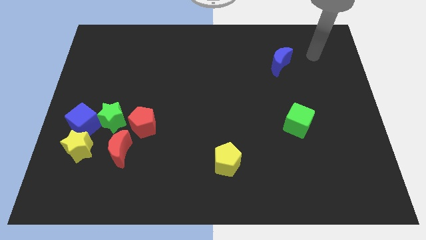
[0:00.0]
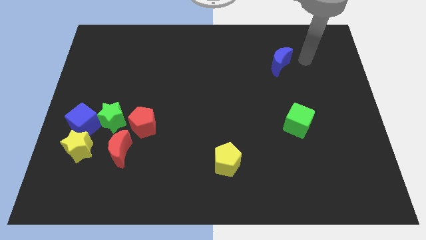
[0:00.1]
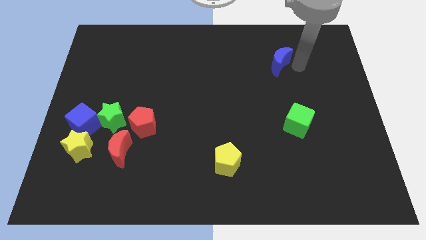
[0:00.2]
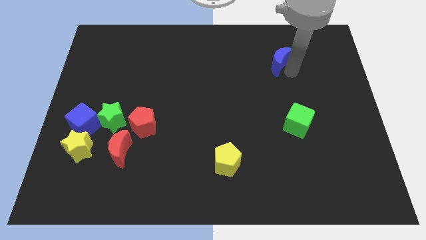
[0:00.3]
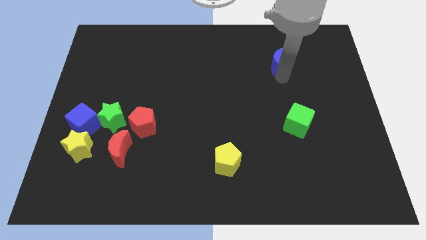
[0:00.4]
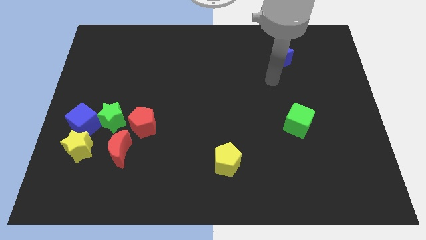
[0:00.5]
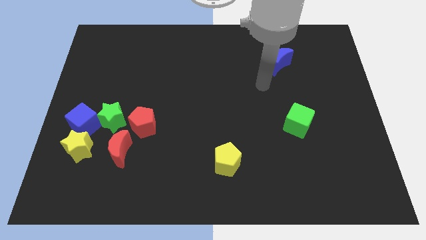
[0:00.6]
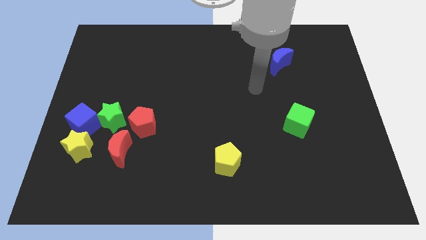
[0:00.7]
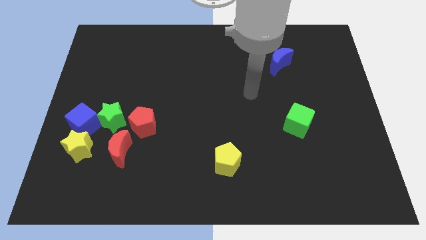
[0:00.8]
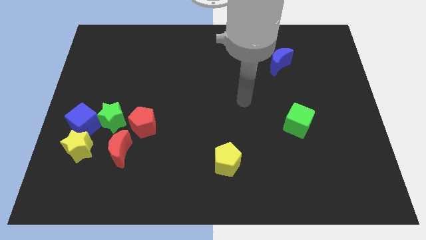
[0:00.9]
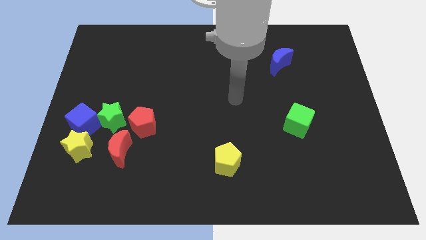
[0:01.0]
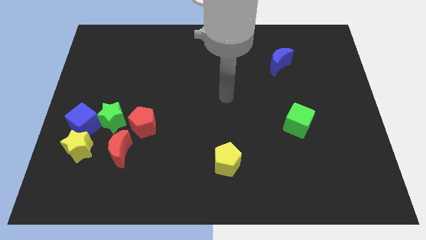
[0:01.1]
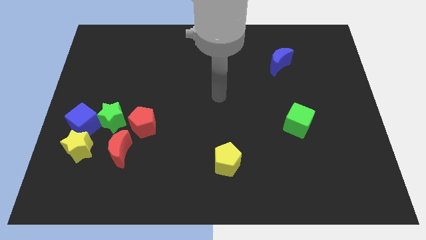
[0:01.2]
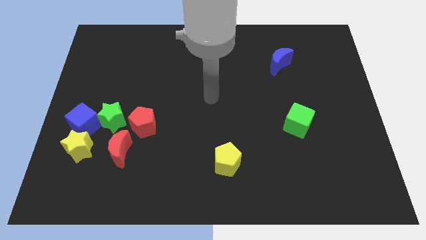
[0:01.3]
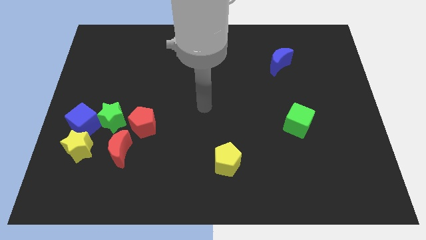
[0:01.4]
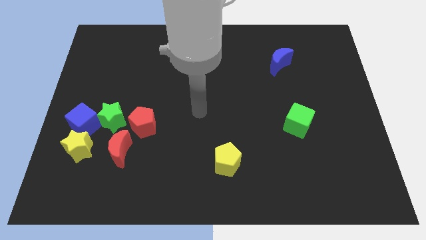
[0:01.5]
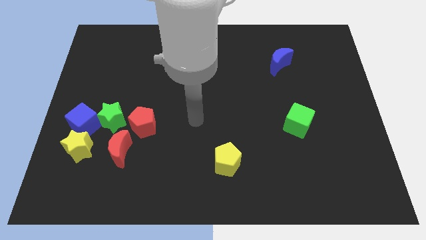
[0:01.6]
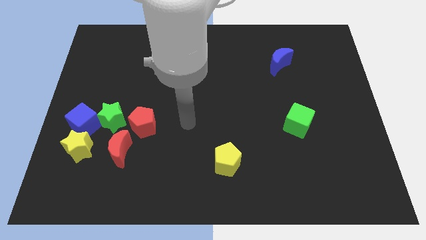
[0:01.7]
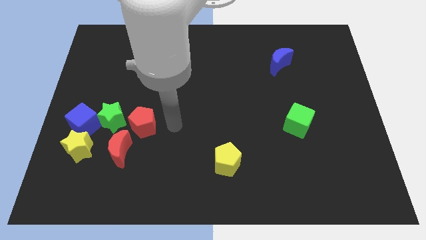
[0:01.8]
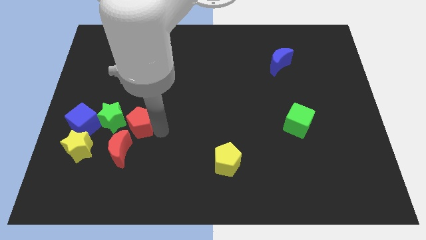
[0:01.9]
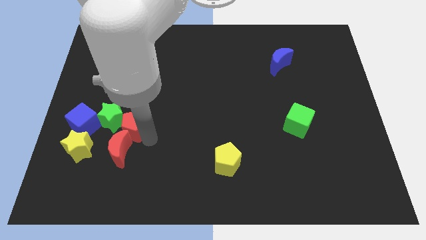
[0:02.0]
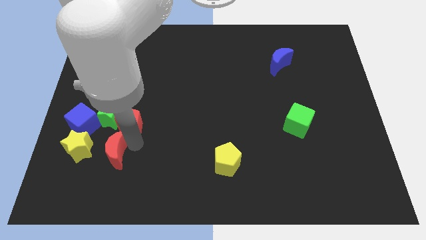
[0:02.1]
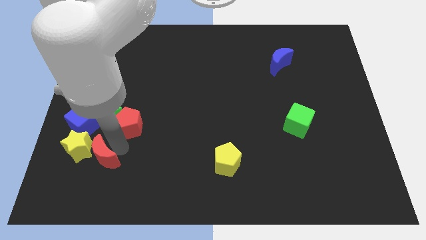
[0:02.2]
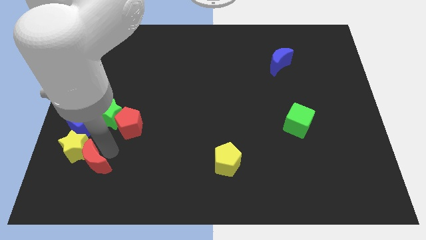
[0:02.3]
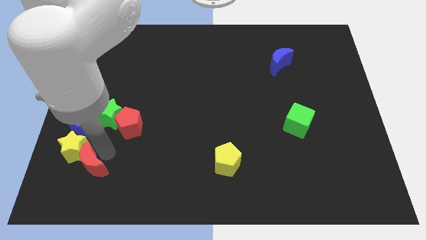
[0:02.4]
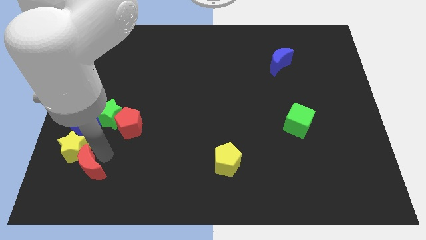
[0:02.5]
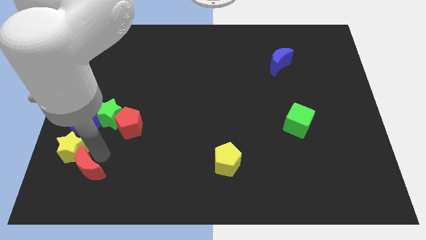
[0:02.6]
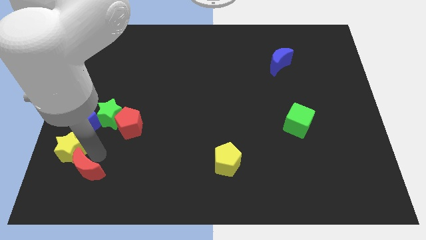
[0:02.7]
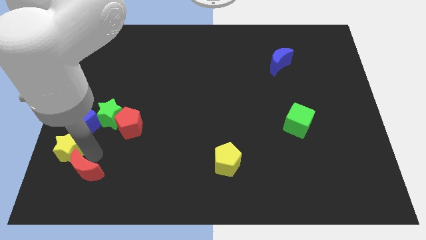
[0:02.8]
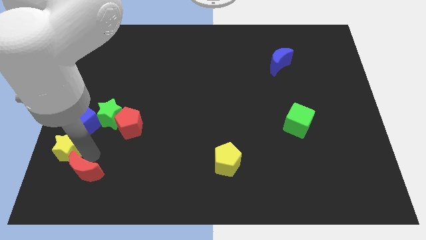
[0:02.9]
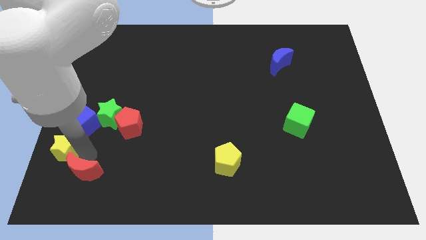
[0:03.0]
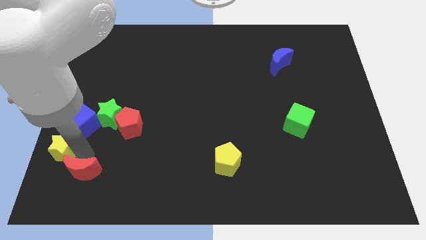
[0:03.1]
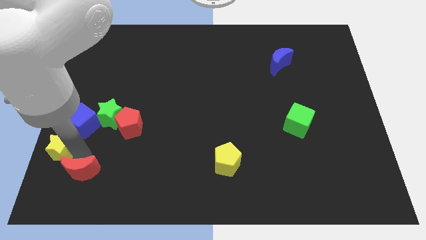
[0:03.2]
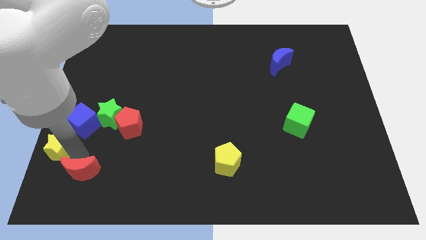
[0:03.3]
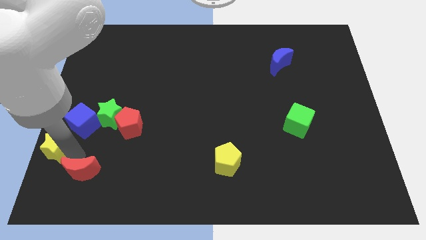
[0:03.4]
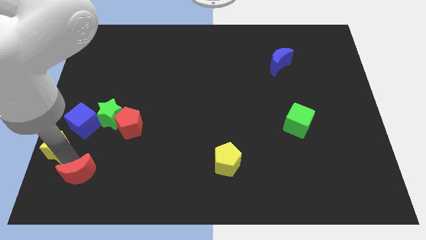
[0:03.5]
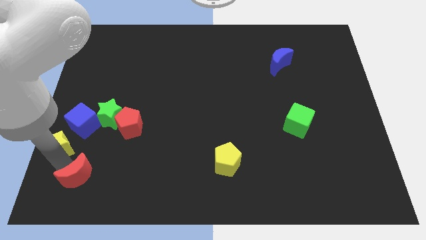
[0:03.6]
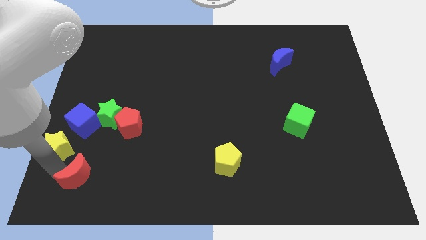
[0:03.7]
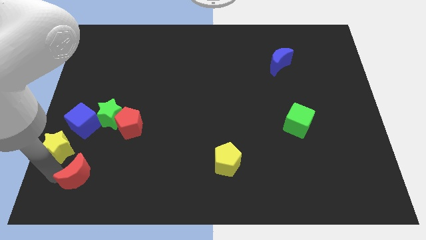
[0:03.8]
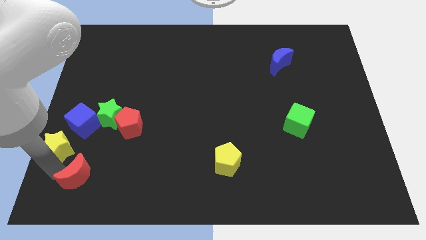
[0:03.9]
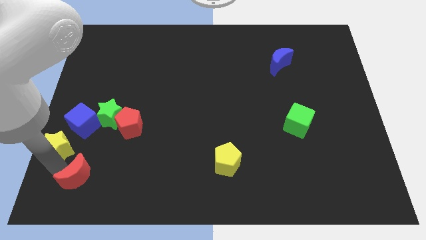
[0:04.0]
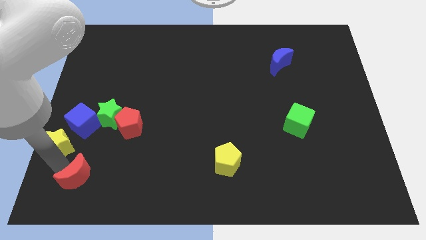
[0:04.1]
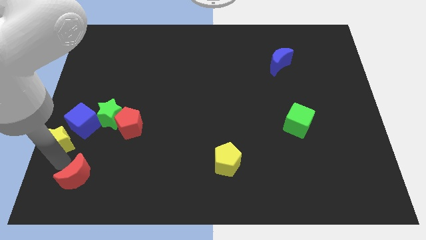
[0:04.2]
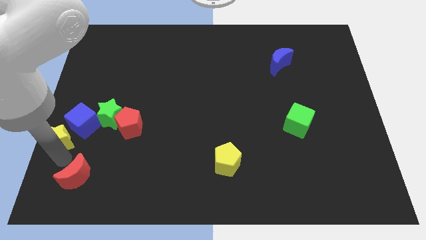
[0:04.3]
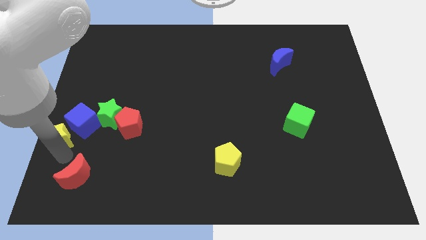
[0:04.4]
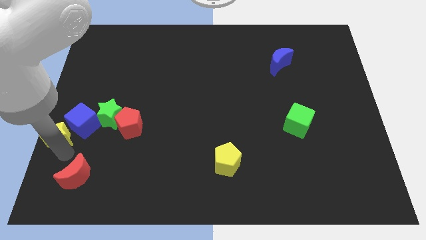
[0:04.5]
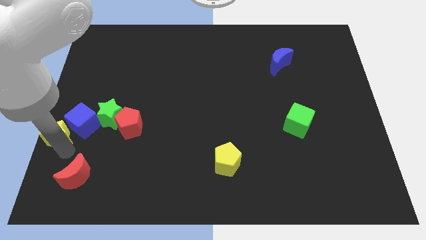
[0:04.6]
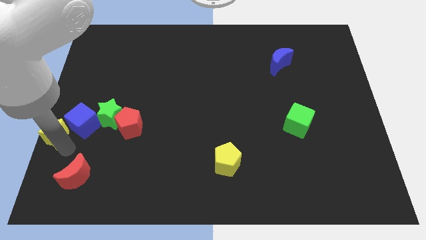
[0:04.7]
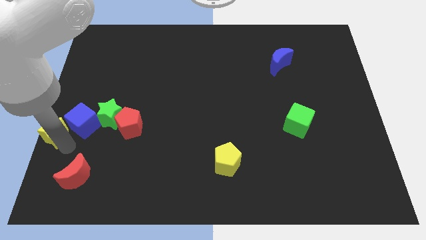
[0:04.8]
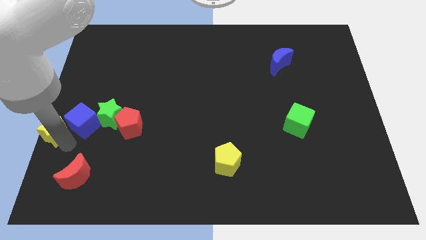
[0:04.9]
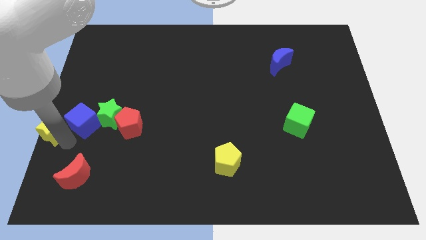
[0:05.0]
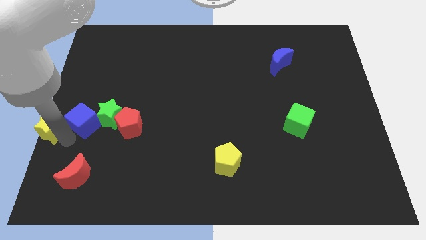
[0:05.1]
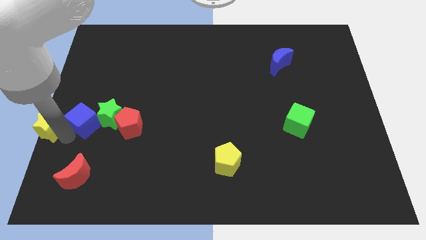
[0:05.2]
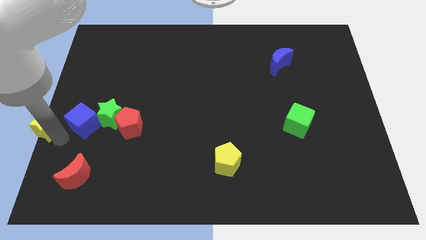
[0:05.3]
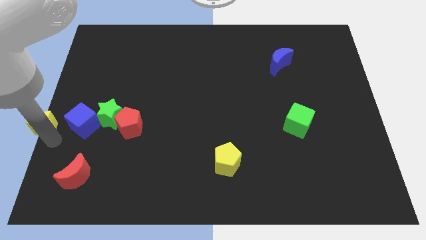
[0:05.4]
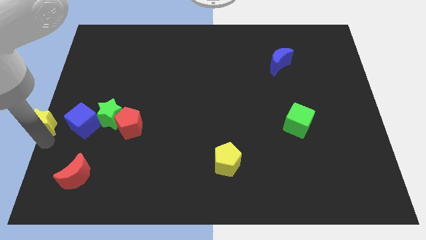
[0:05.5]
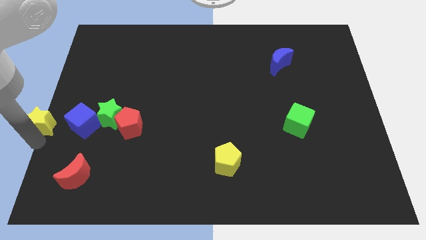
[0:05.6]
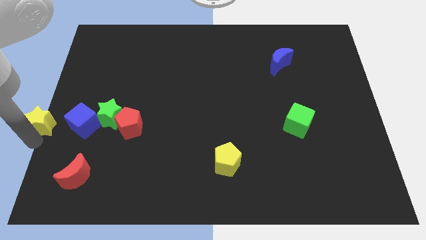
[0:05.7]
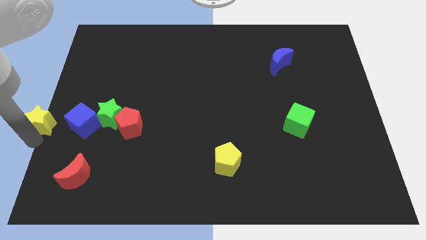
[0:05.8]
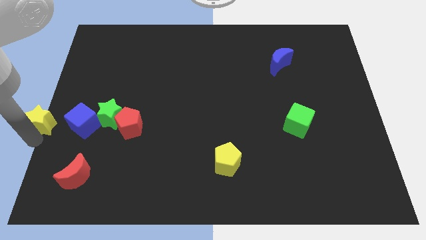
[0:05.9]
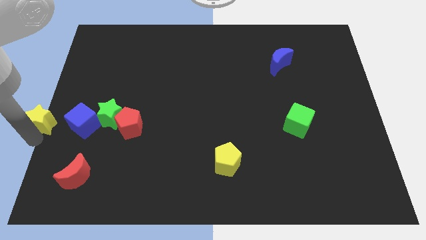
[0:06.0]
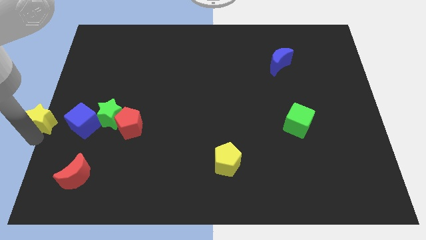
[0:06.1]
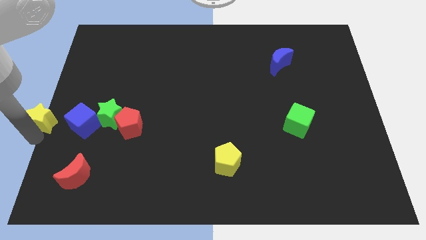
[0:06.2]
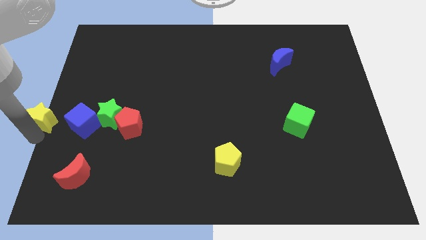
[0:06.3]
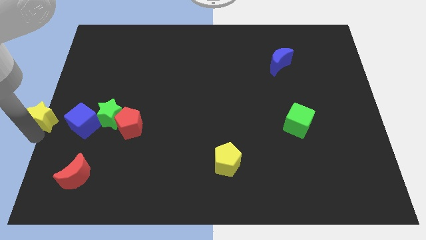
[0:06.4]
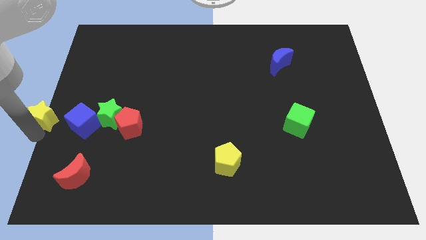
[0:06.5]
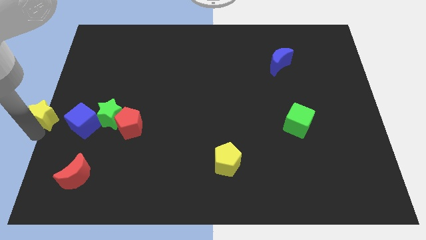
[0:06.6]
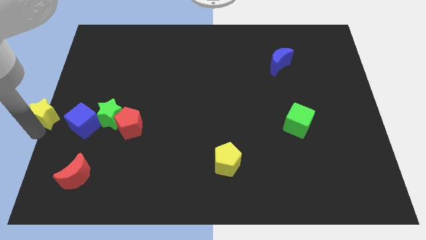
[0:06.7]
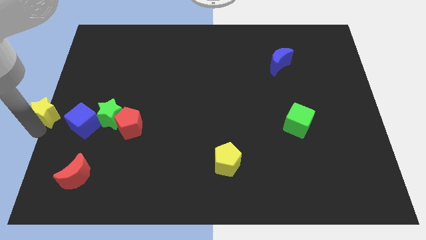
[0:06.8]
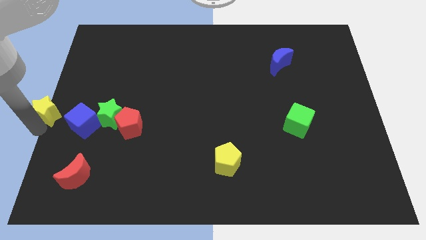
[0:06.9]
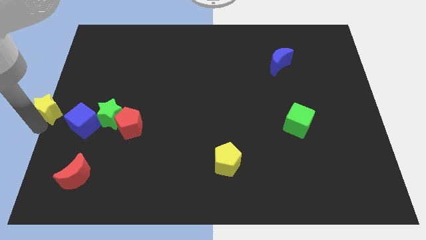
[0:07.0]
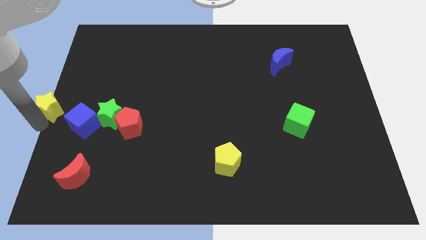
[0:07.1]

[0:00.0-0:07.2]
move the yellow star slightly upwards

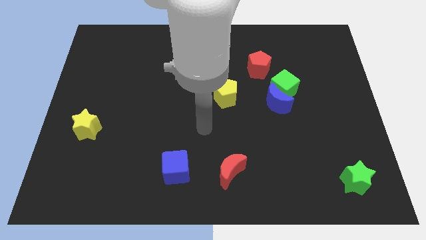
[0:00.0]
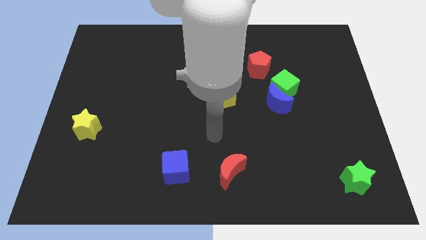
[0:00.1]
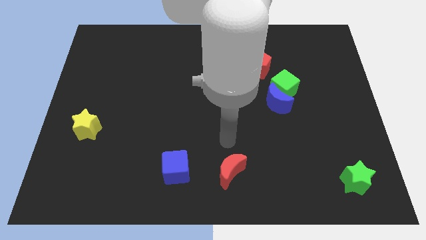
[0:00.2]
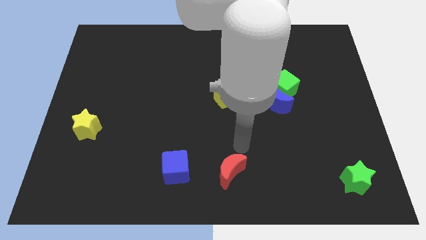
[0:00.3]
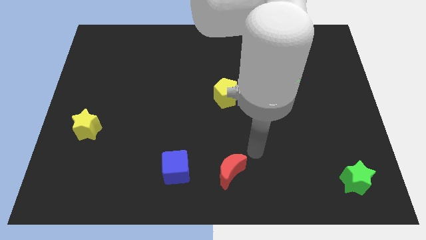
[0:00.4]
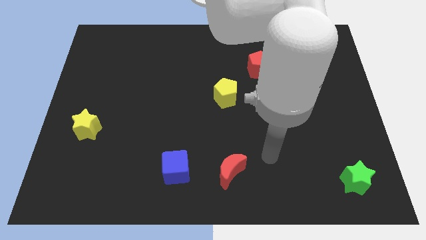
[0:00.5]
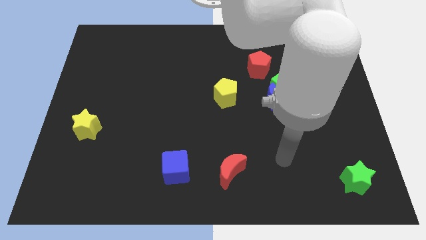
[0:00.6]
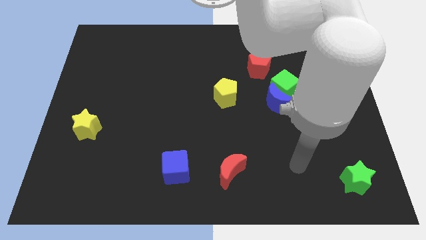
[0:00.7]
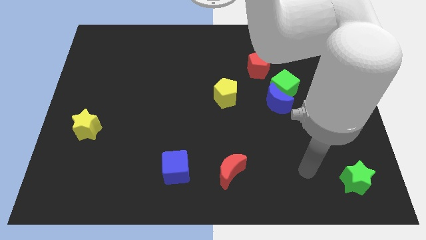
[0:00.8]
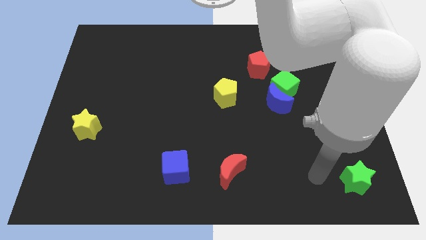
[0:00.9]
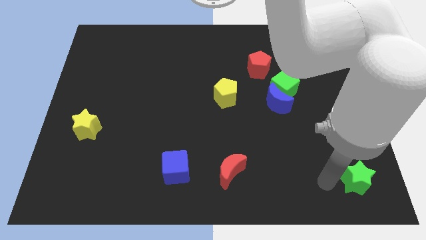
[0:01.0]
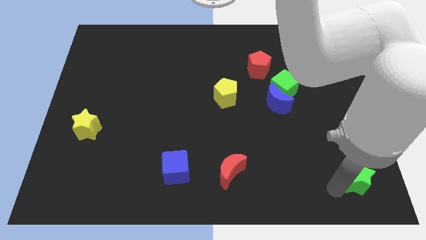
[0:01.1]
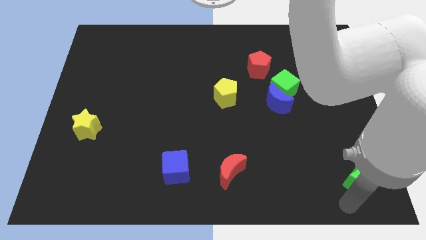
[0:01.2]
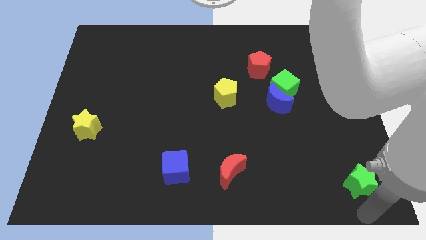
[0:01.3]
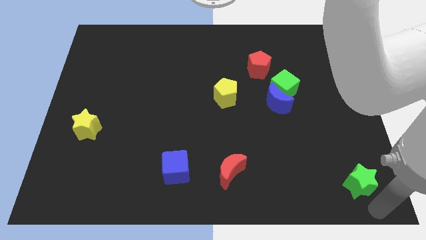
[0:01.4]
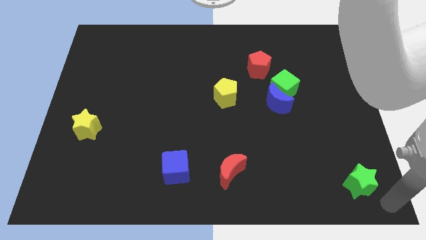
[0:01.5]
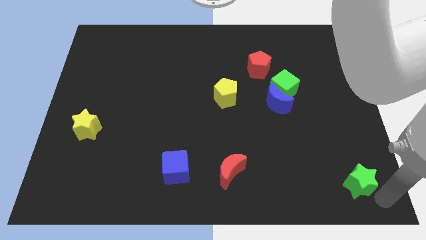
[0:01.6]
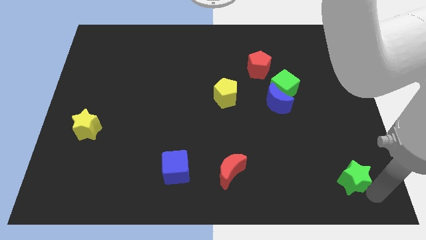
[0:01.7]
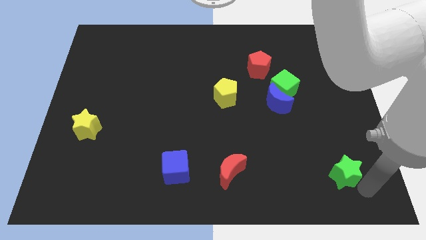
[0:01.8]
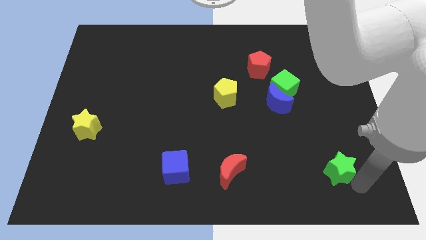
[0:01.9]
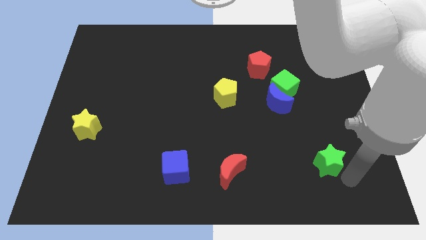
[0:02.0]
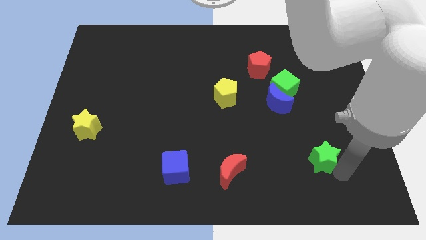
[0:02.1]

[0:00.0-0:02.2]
move the green star upwards and left somewhat
